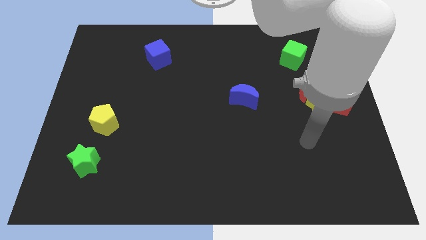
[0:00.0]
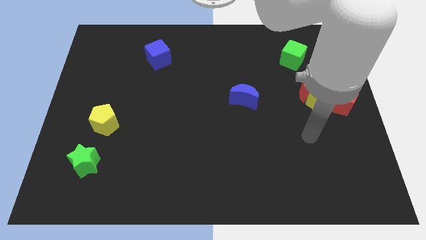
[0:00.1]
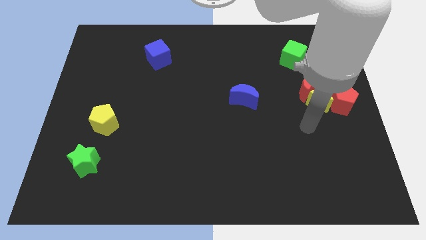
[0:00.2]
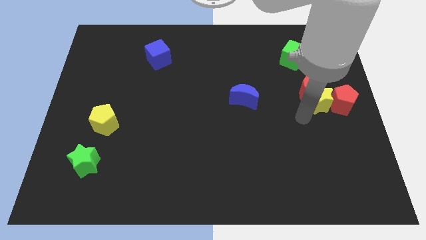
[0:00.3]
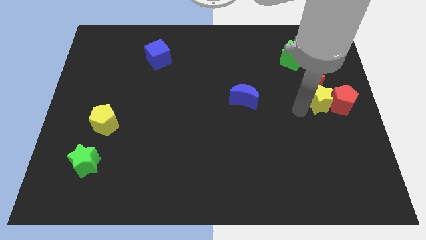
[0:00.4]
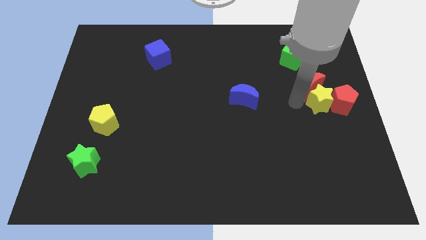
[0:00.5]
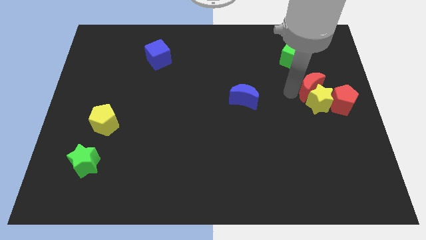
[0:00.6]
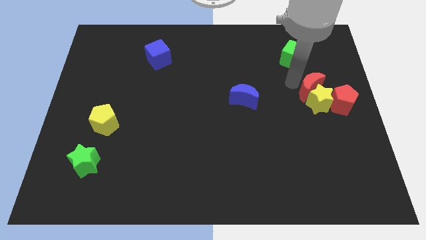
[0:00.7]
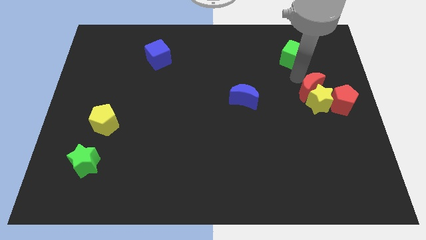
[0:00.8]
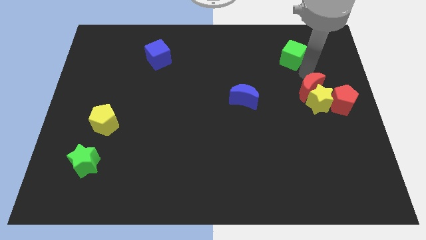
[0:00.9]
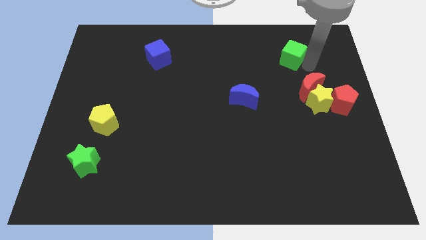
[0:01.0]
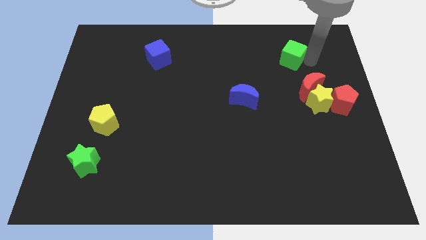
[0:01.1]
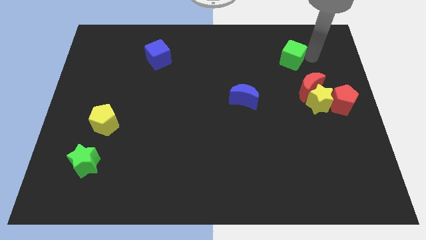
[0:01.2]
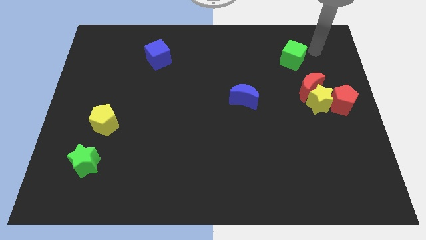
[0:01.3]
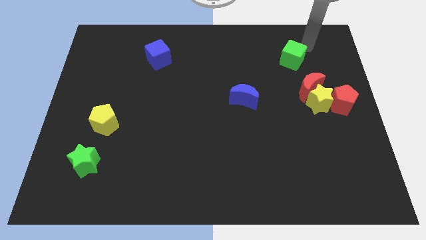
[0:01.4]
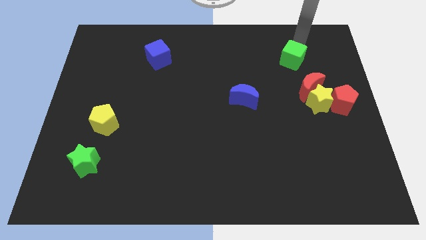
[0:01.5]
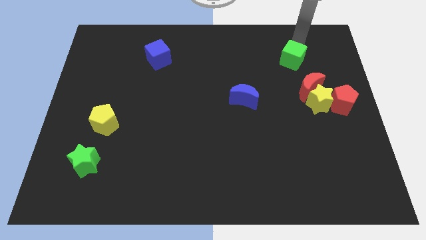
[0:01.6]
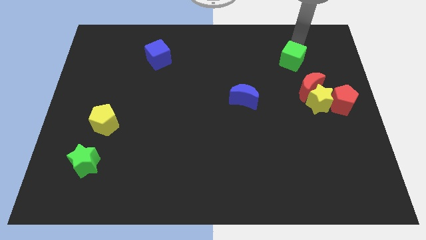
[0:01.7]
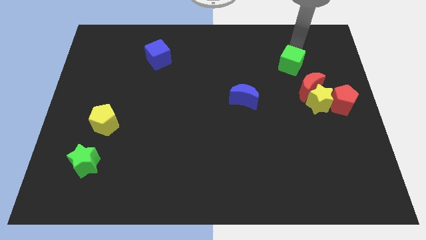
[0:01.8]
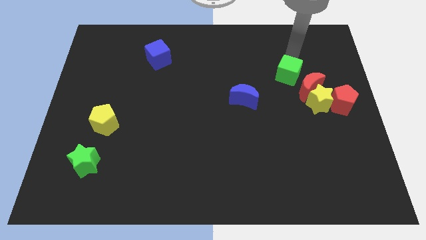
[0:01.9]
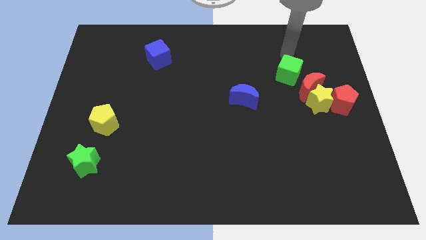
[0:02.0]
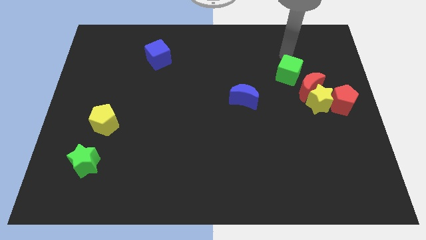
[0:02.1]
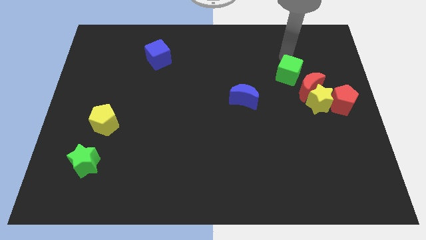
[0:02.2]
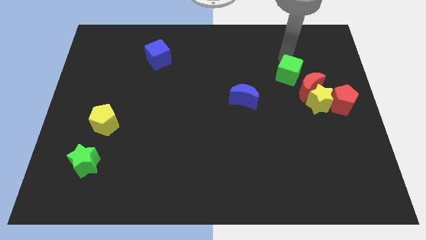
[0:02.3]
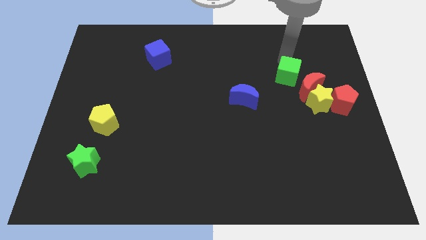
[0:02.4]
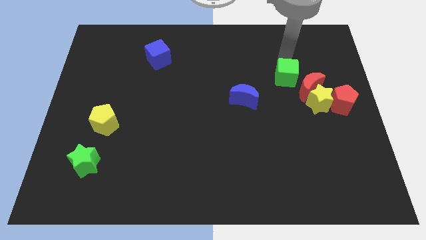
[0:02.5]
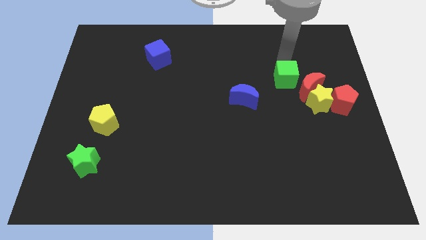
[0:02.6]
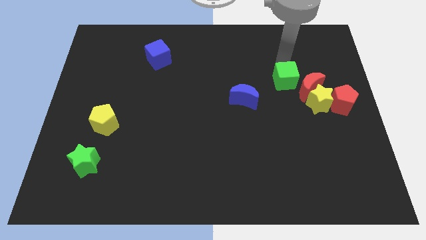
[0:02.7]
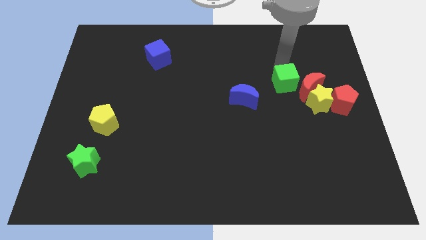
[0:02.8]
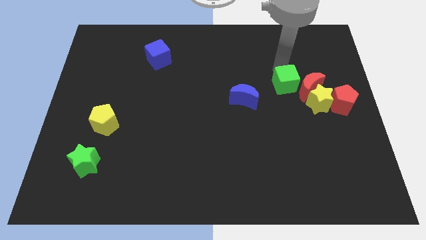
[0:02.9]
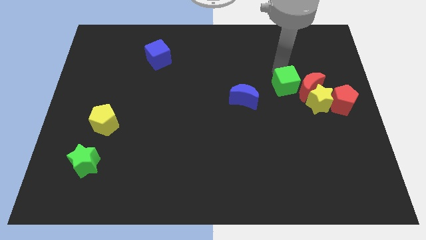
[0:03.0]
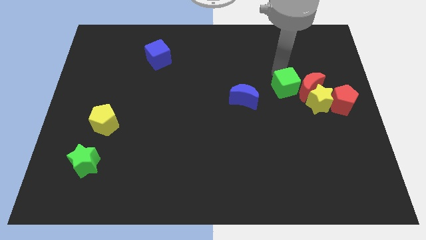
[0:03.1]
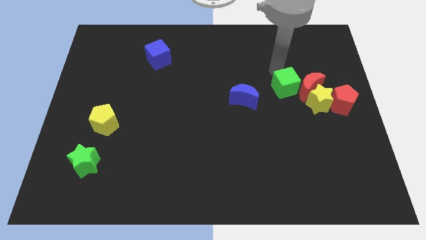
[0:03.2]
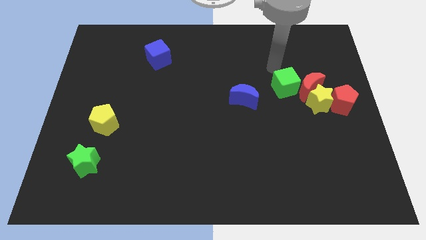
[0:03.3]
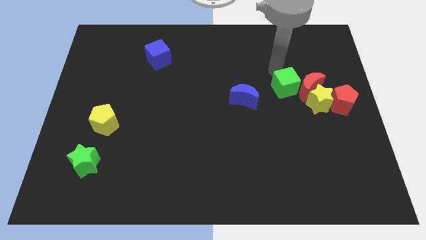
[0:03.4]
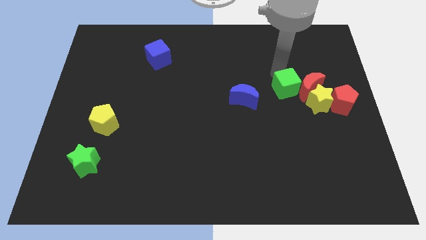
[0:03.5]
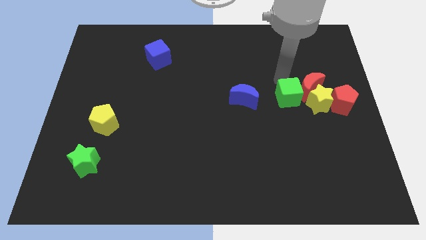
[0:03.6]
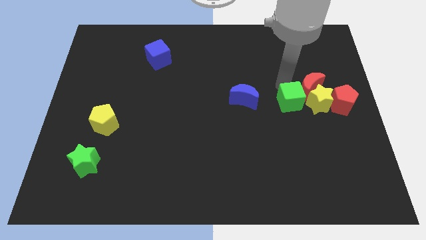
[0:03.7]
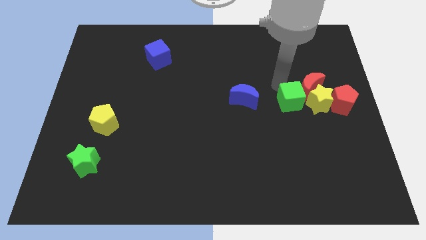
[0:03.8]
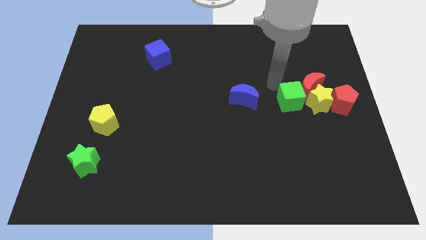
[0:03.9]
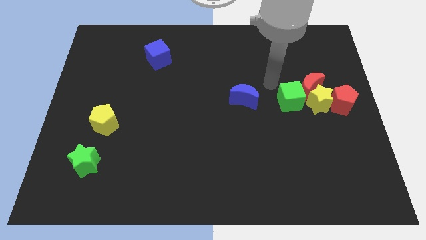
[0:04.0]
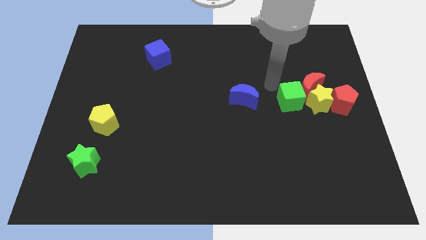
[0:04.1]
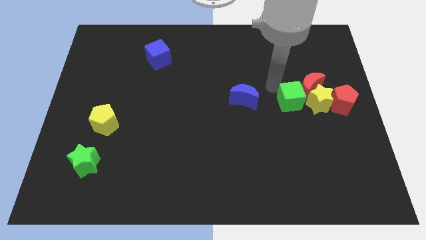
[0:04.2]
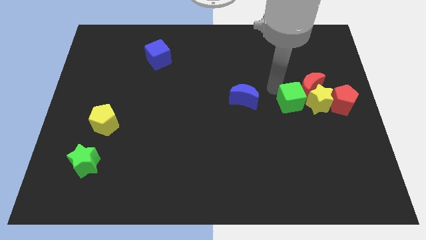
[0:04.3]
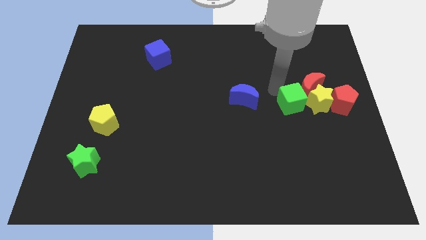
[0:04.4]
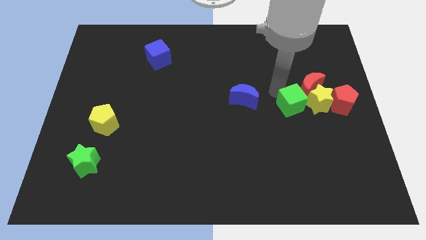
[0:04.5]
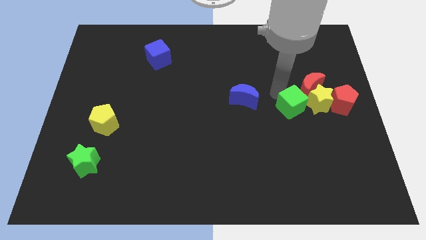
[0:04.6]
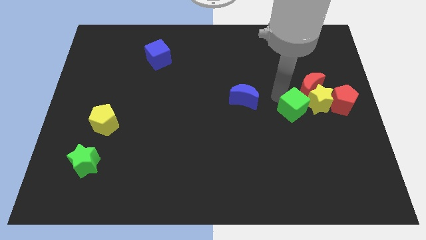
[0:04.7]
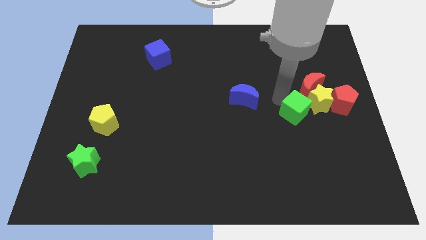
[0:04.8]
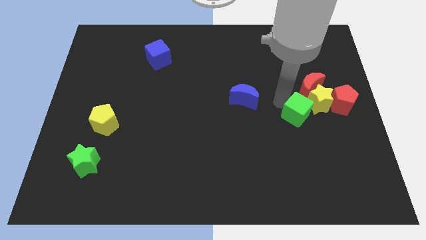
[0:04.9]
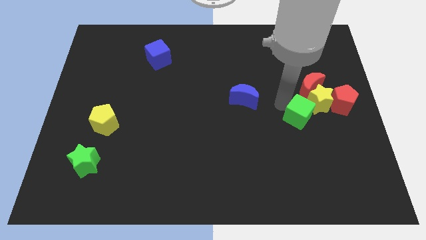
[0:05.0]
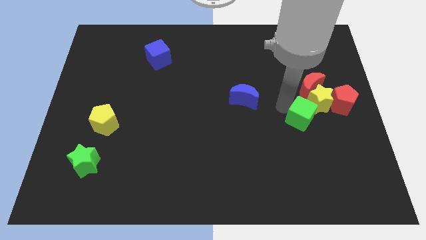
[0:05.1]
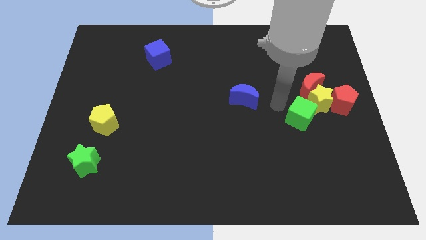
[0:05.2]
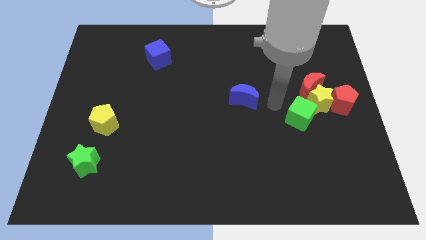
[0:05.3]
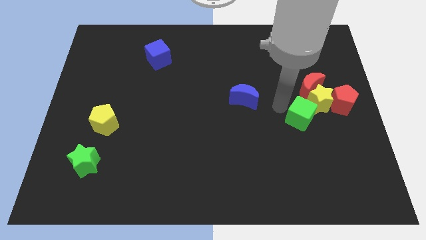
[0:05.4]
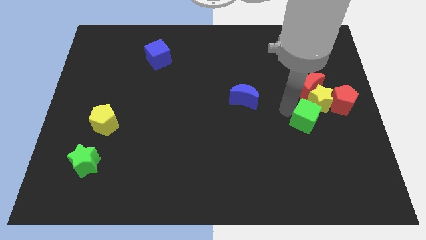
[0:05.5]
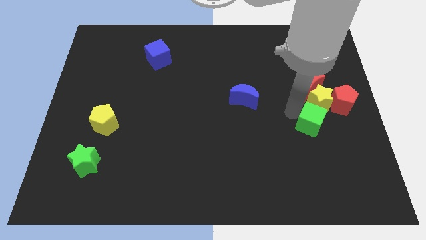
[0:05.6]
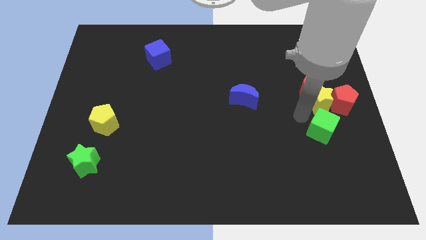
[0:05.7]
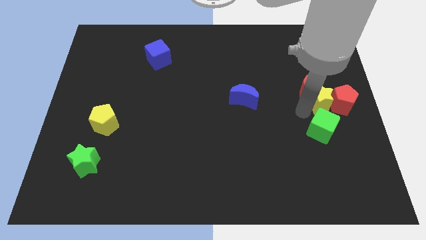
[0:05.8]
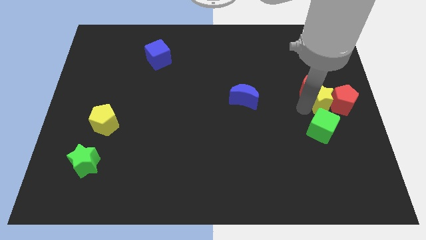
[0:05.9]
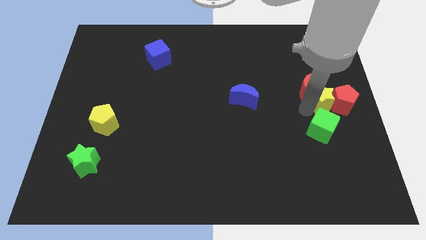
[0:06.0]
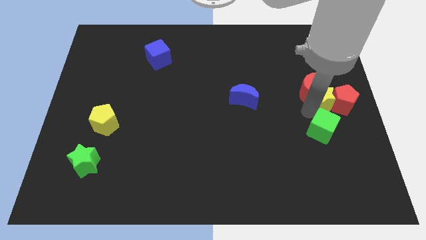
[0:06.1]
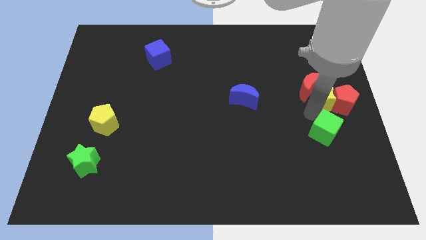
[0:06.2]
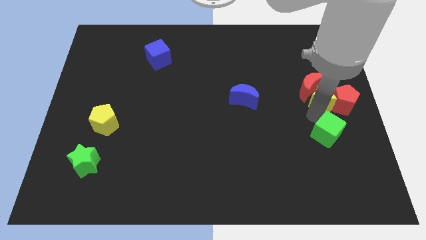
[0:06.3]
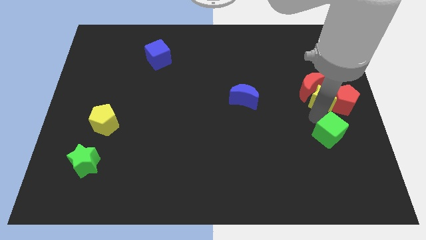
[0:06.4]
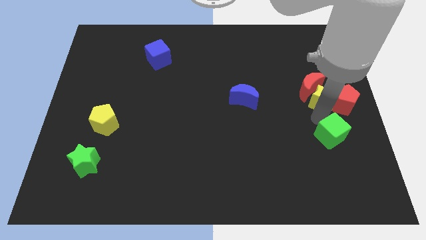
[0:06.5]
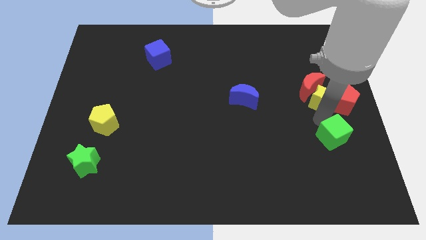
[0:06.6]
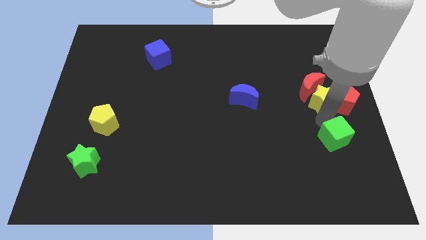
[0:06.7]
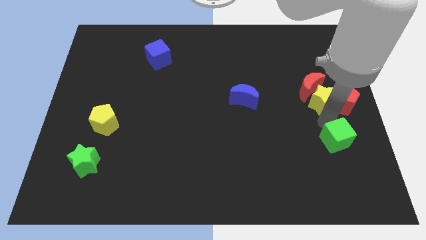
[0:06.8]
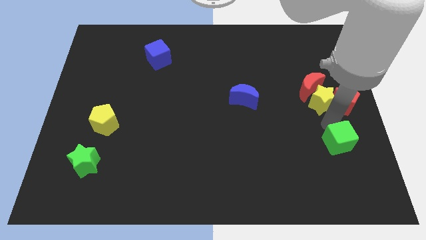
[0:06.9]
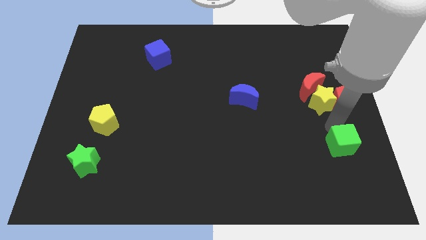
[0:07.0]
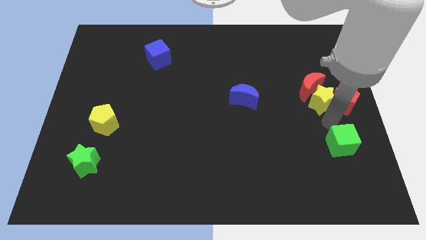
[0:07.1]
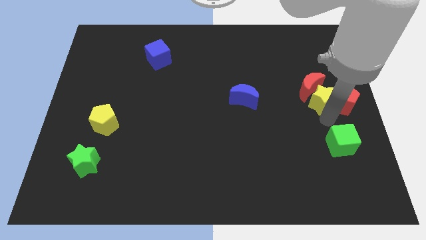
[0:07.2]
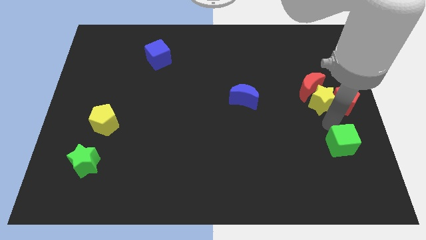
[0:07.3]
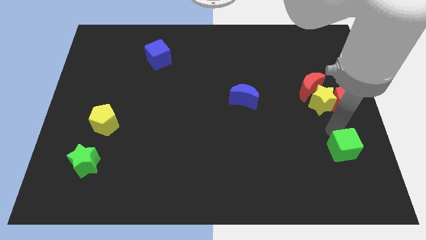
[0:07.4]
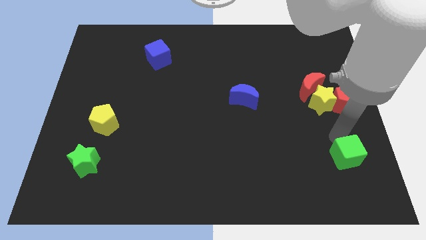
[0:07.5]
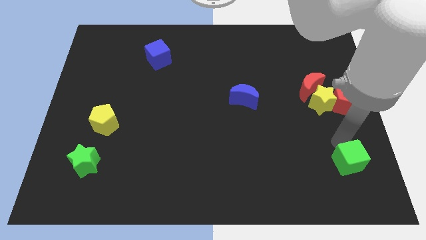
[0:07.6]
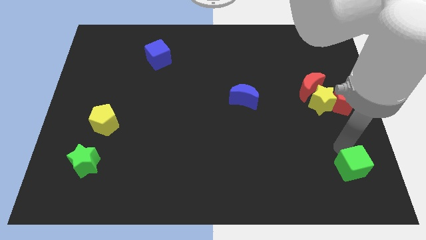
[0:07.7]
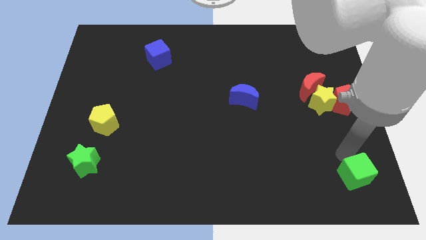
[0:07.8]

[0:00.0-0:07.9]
slide the green cube to the bottom right corner
